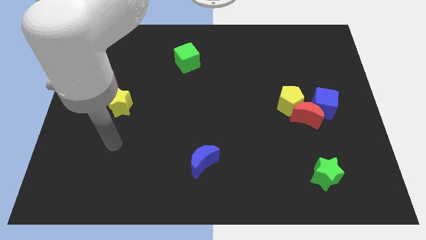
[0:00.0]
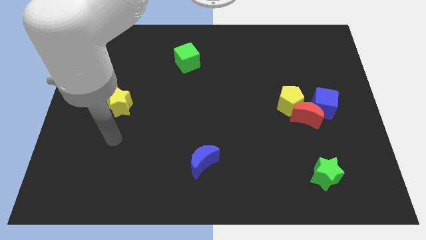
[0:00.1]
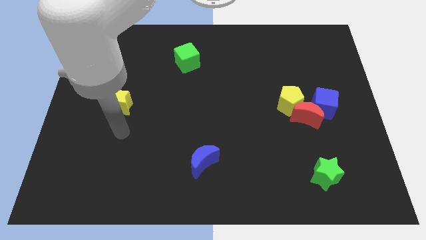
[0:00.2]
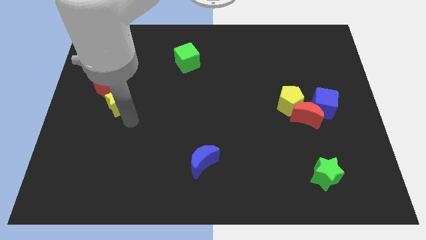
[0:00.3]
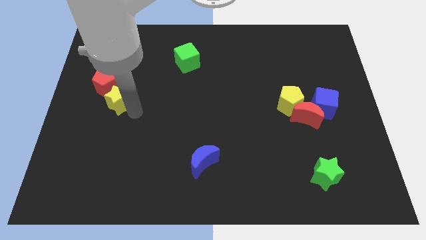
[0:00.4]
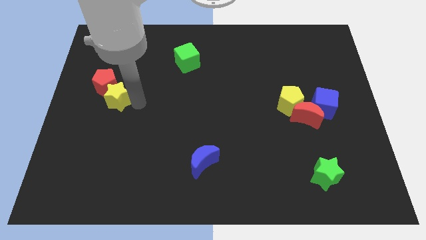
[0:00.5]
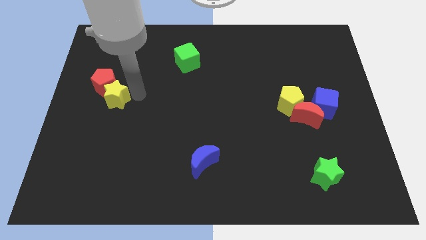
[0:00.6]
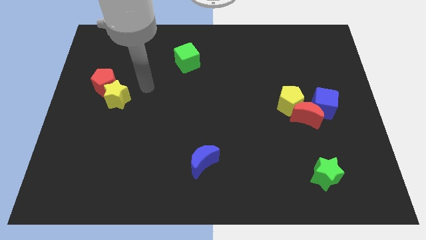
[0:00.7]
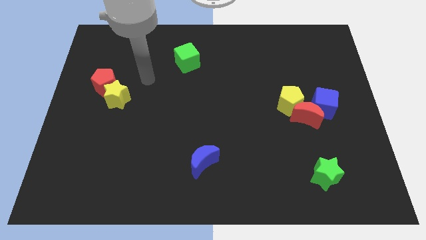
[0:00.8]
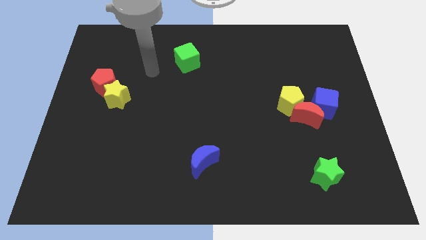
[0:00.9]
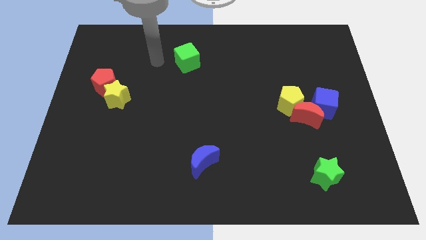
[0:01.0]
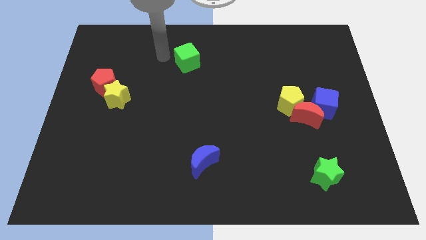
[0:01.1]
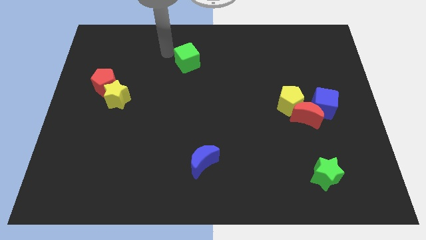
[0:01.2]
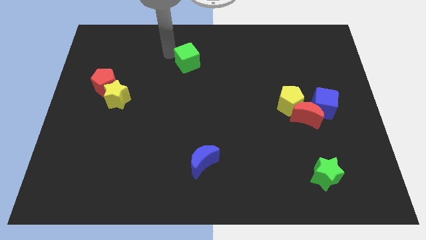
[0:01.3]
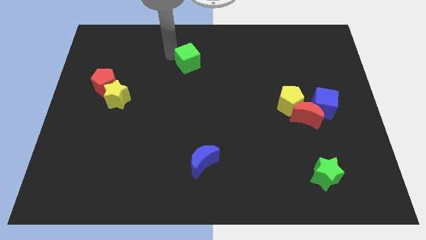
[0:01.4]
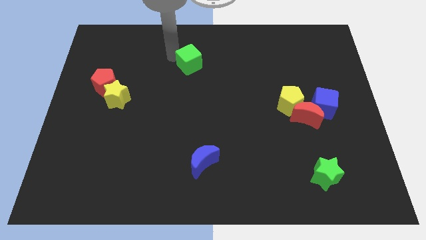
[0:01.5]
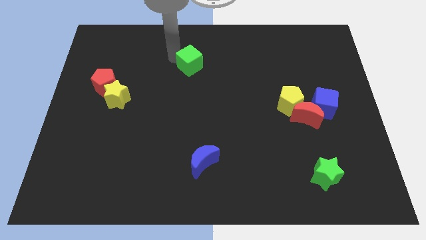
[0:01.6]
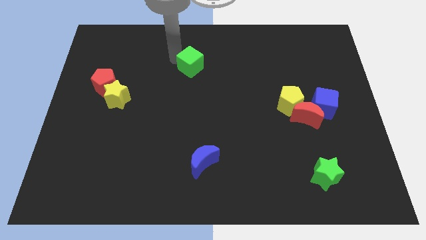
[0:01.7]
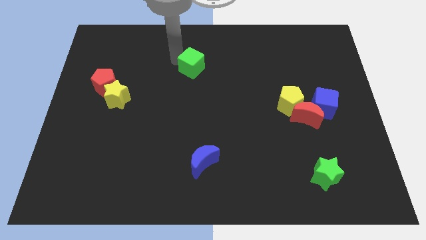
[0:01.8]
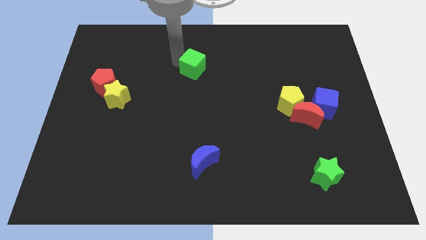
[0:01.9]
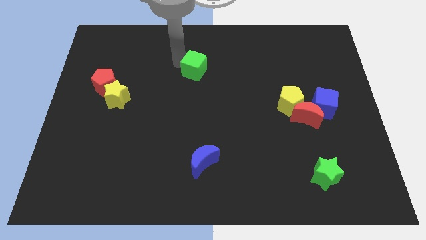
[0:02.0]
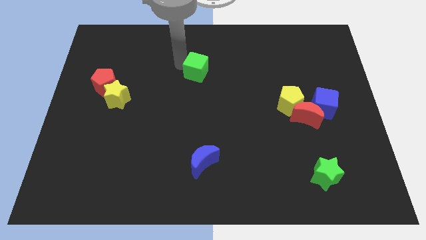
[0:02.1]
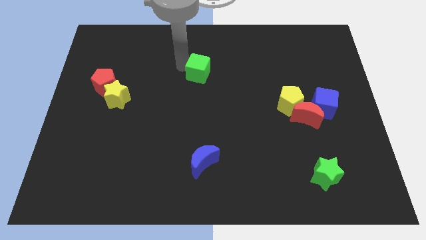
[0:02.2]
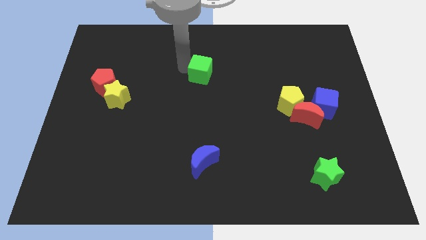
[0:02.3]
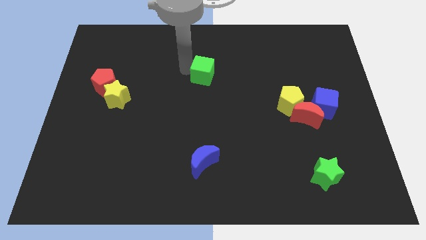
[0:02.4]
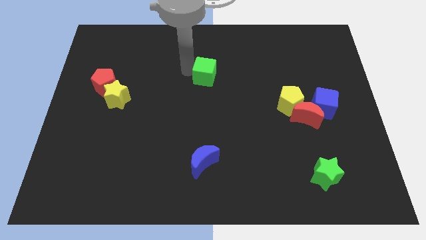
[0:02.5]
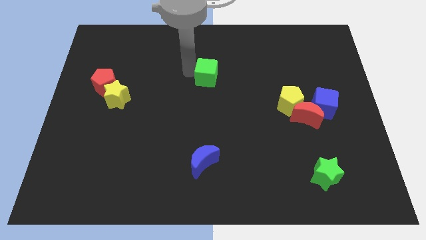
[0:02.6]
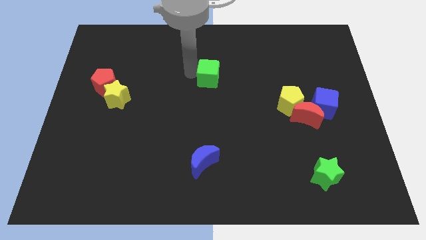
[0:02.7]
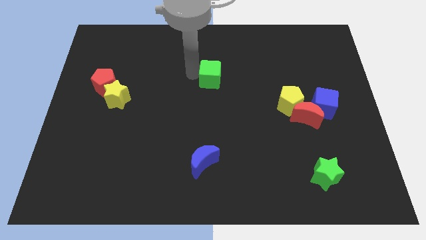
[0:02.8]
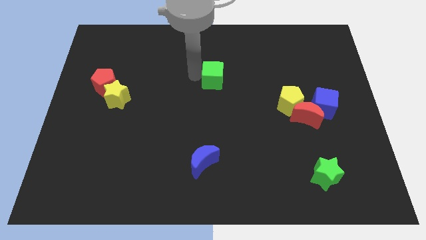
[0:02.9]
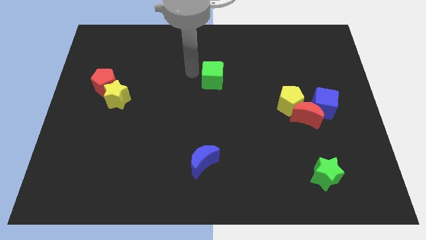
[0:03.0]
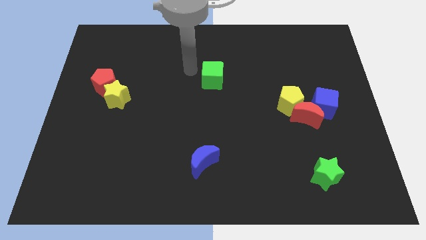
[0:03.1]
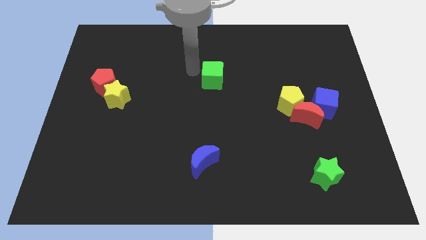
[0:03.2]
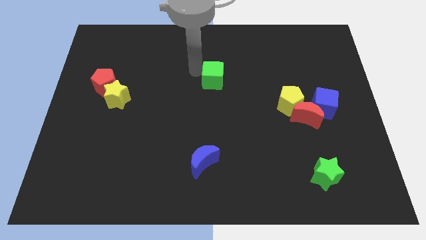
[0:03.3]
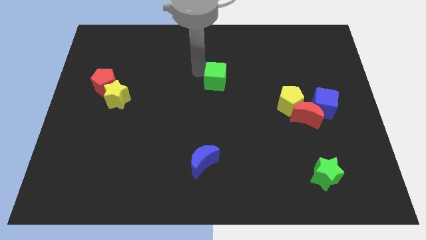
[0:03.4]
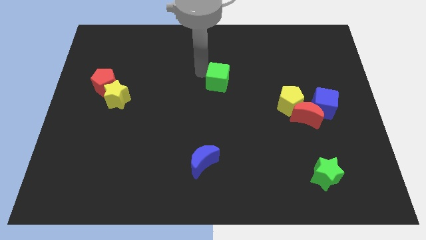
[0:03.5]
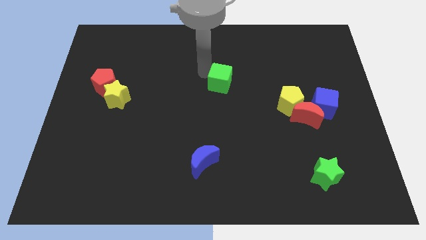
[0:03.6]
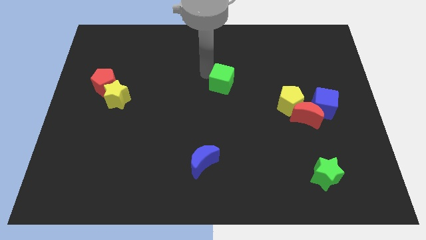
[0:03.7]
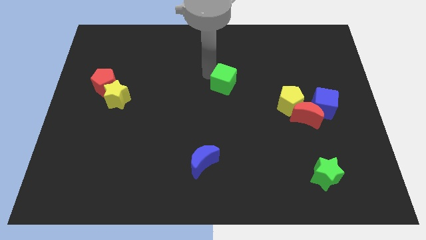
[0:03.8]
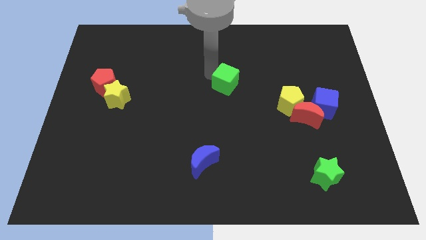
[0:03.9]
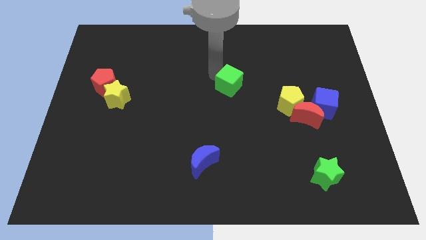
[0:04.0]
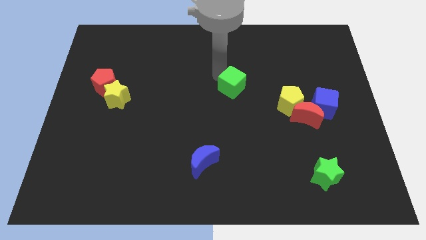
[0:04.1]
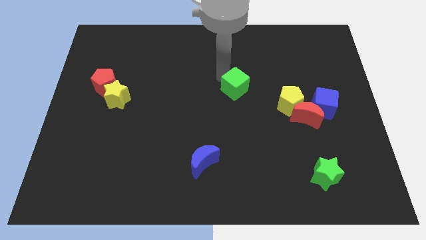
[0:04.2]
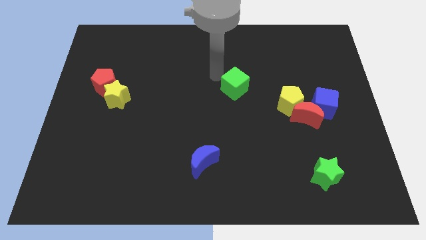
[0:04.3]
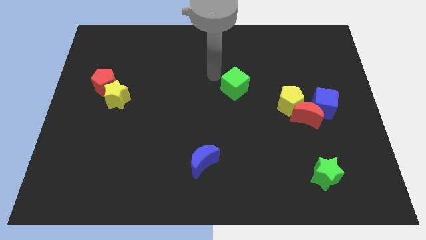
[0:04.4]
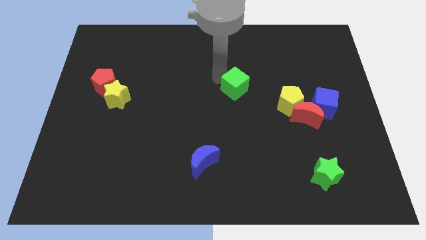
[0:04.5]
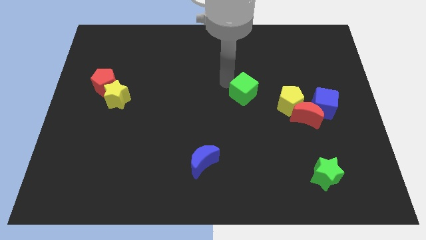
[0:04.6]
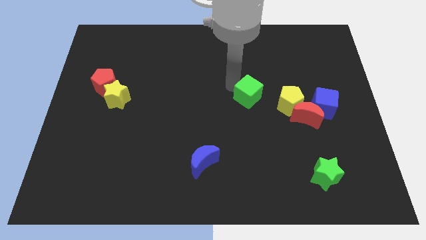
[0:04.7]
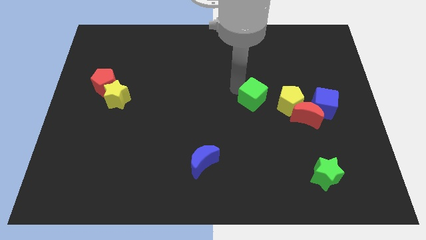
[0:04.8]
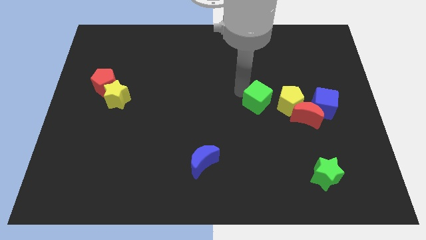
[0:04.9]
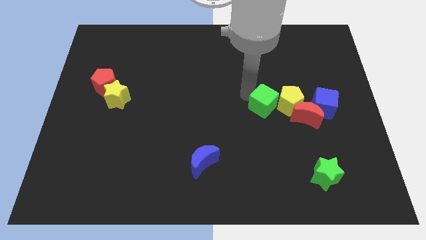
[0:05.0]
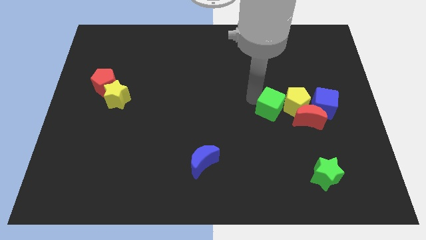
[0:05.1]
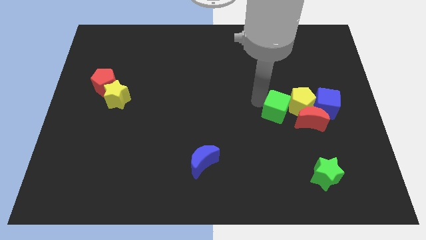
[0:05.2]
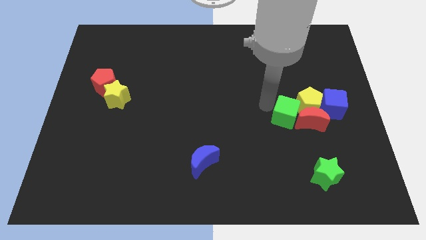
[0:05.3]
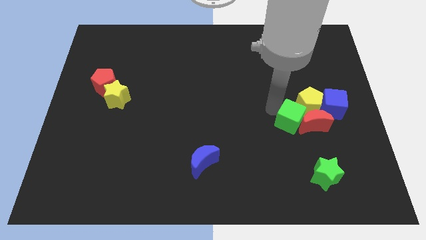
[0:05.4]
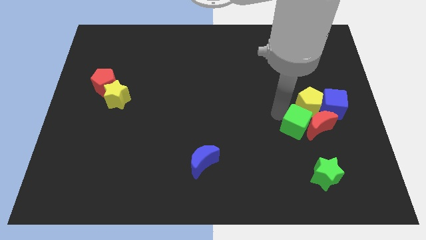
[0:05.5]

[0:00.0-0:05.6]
push the green cube to the bottom left side of the blue cube

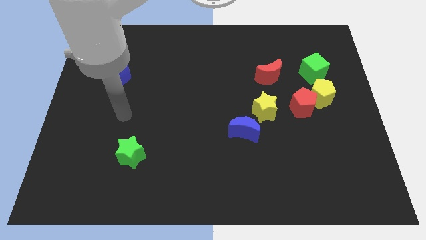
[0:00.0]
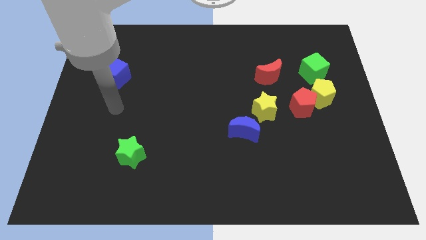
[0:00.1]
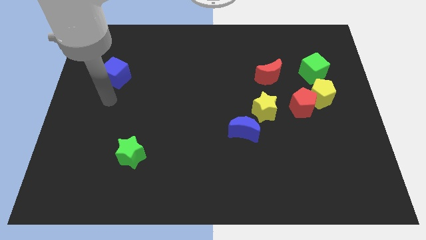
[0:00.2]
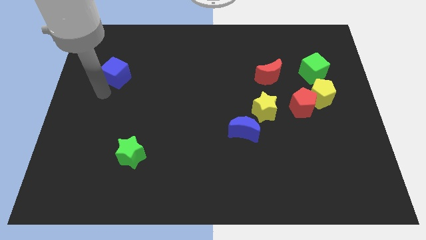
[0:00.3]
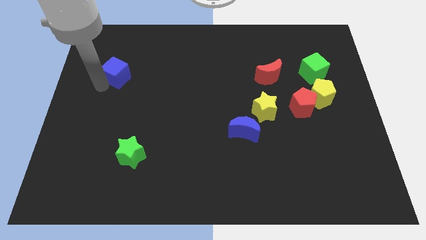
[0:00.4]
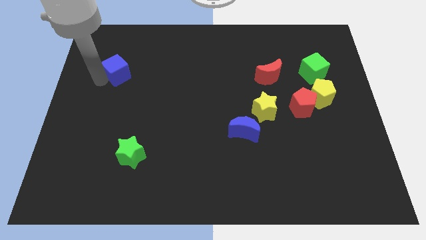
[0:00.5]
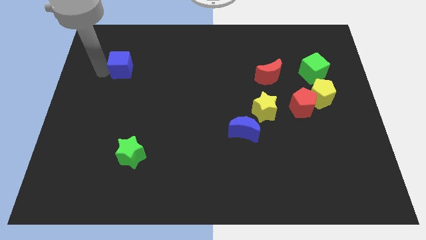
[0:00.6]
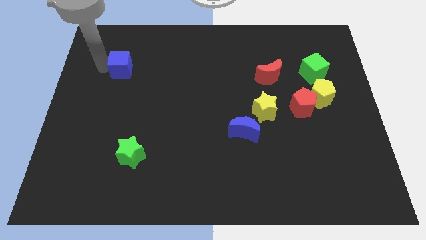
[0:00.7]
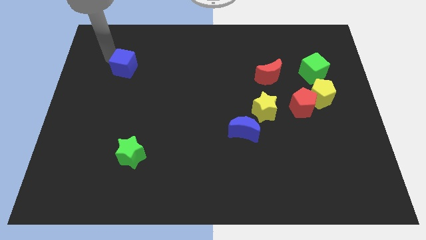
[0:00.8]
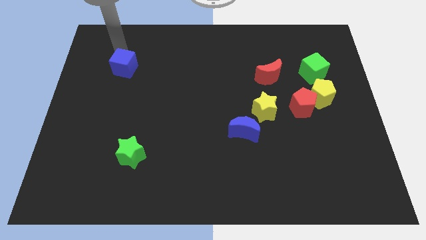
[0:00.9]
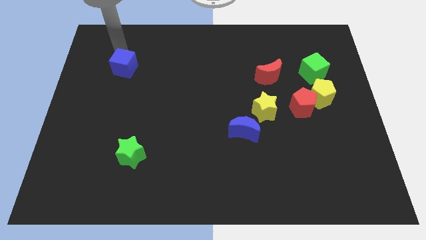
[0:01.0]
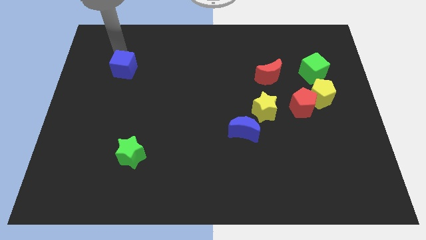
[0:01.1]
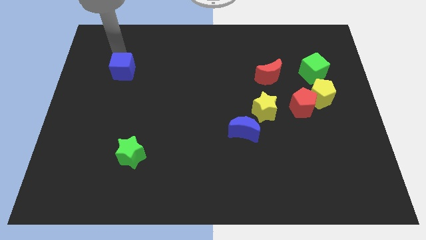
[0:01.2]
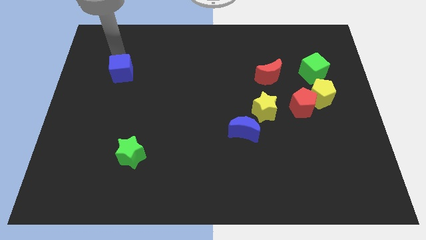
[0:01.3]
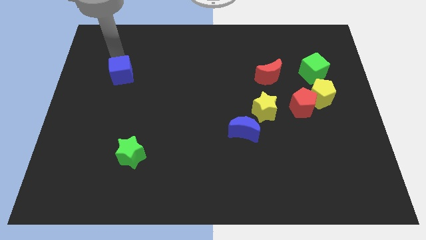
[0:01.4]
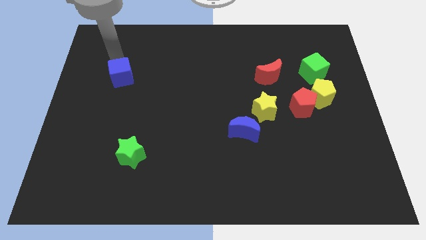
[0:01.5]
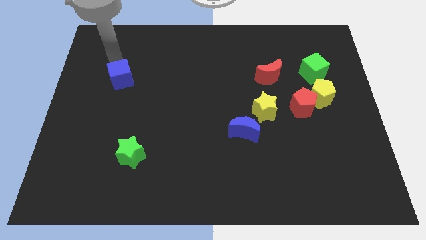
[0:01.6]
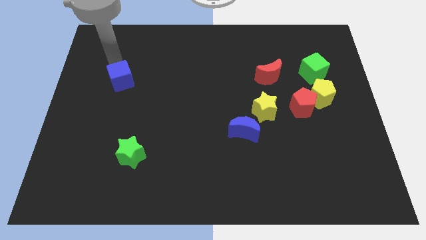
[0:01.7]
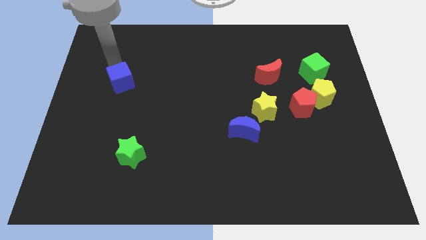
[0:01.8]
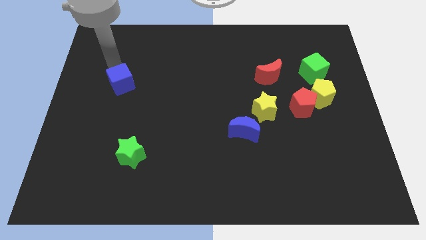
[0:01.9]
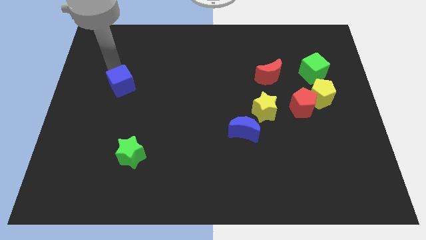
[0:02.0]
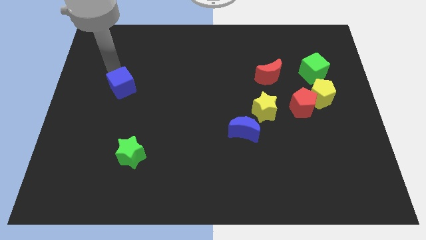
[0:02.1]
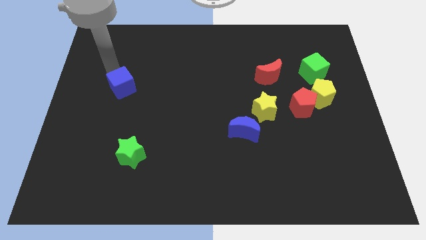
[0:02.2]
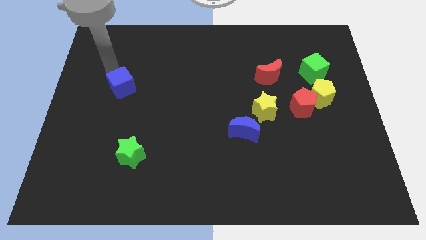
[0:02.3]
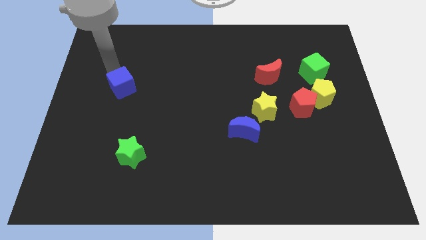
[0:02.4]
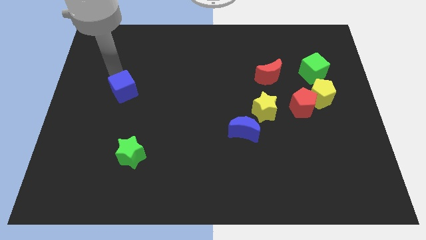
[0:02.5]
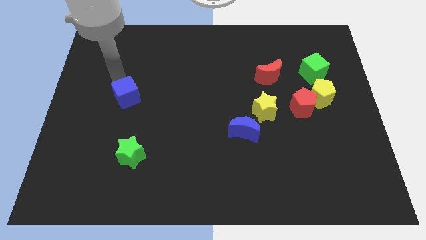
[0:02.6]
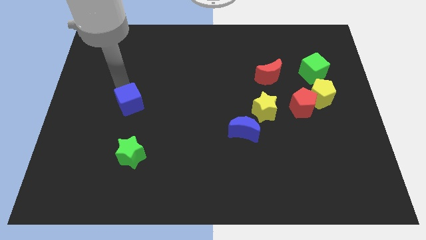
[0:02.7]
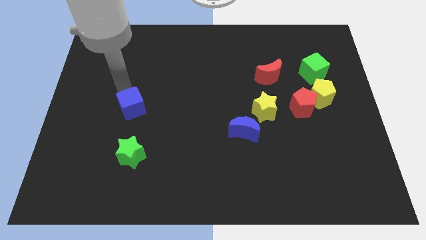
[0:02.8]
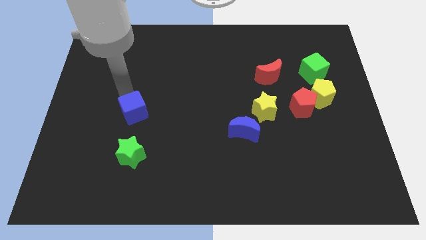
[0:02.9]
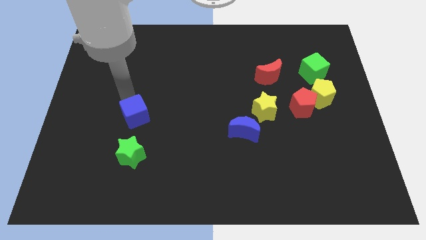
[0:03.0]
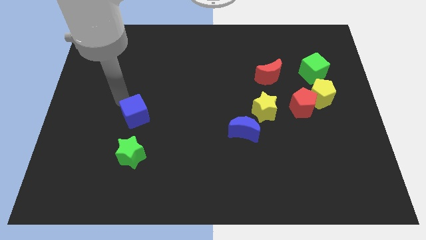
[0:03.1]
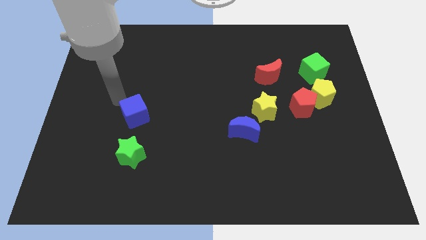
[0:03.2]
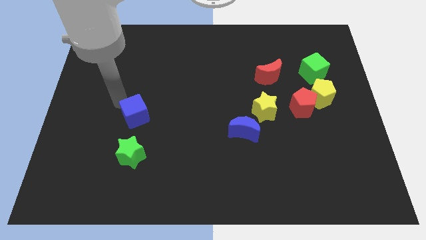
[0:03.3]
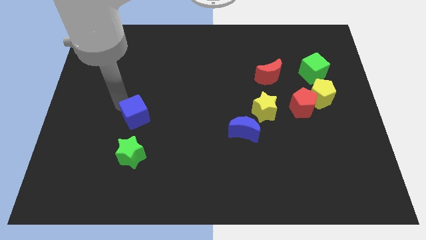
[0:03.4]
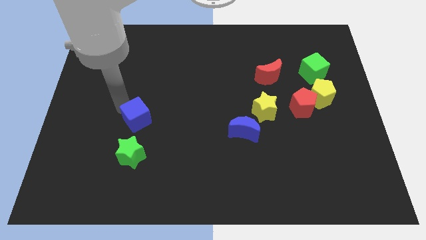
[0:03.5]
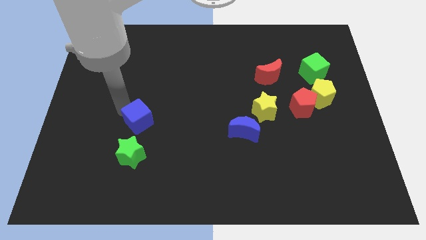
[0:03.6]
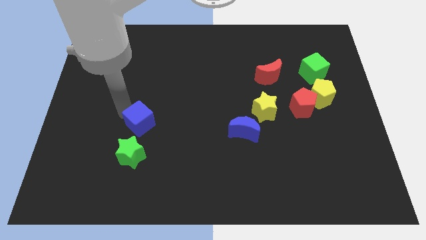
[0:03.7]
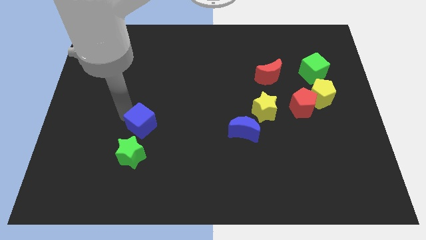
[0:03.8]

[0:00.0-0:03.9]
move the blue cube diagonally up and to the right of the green star
